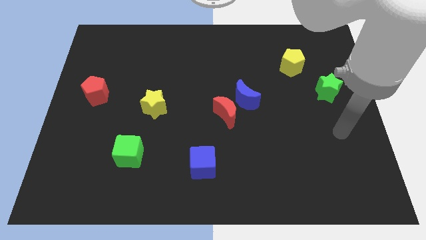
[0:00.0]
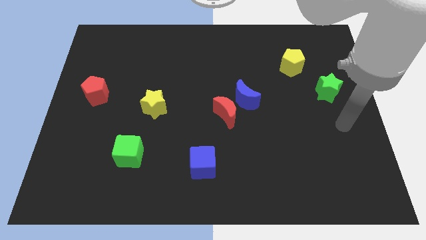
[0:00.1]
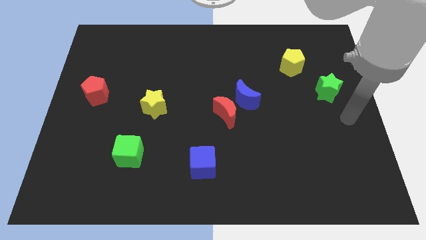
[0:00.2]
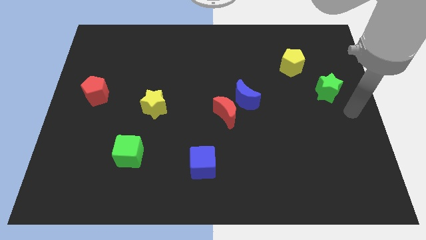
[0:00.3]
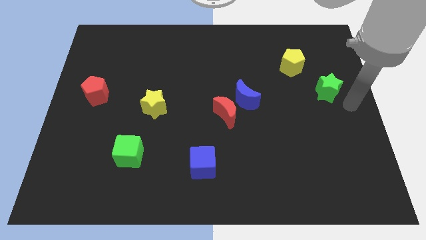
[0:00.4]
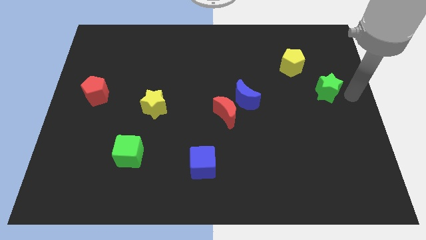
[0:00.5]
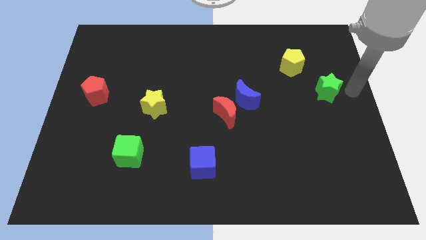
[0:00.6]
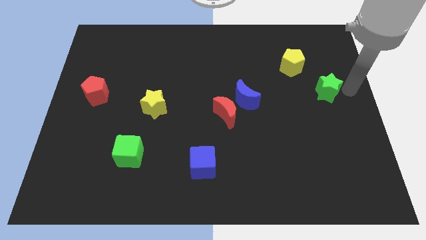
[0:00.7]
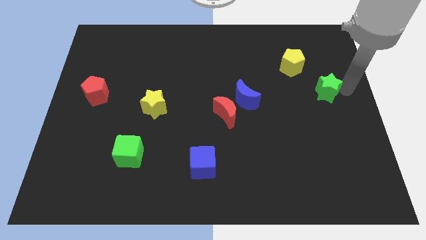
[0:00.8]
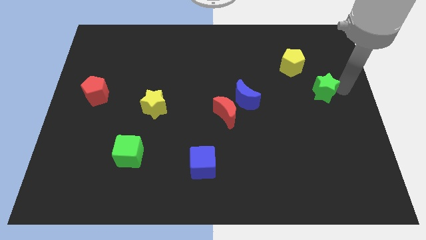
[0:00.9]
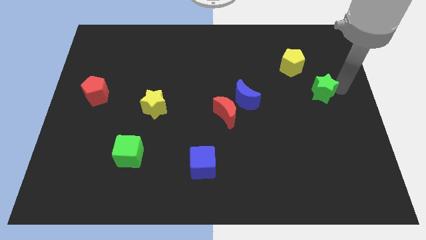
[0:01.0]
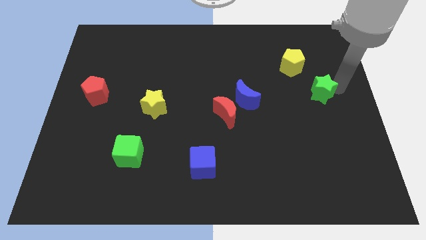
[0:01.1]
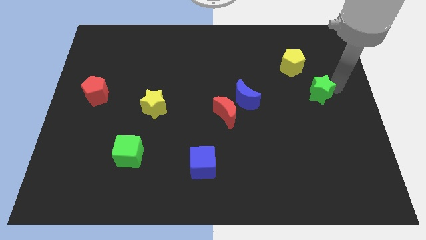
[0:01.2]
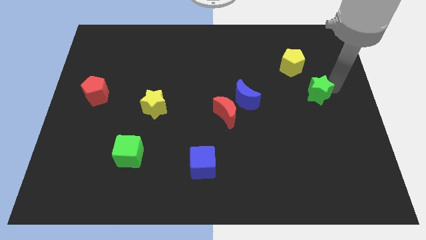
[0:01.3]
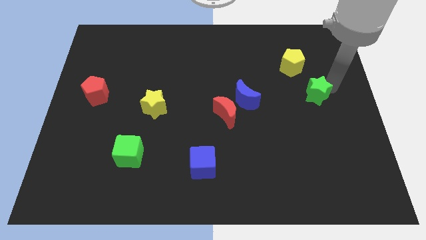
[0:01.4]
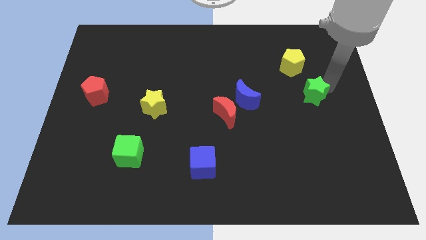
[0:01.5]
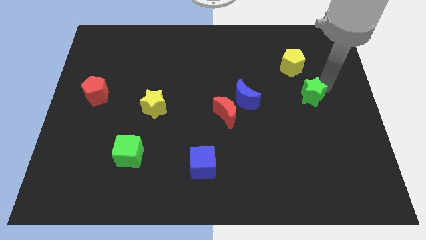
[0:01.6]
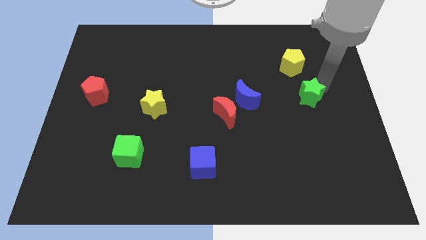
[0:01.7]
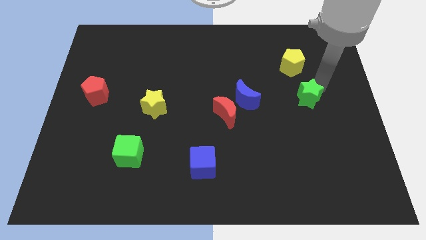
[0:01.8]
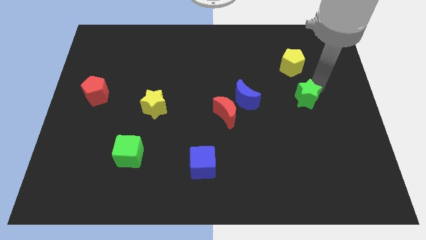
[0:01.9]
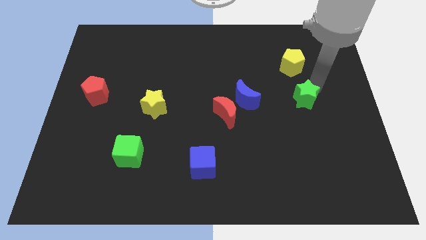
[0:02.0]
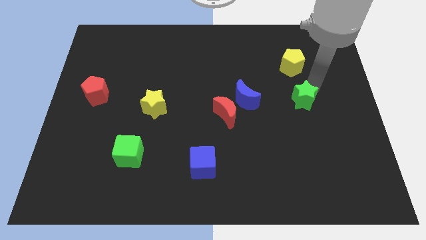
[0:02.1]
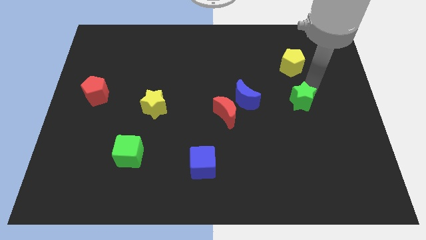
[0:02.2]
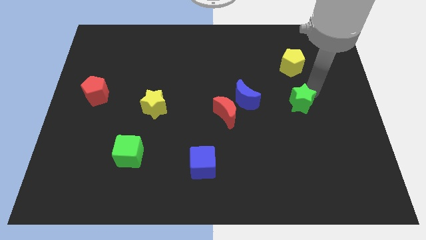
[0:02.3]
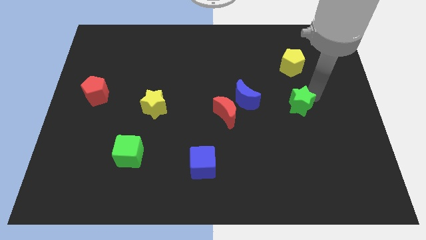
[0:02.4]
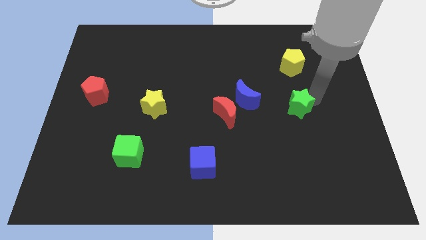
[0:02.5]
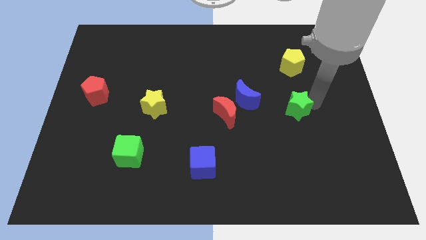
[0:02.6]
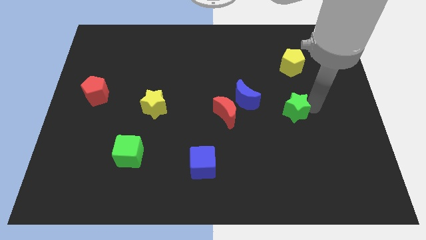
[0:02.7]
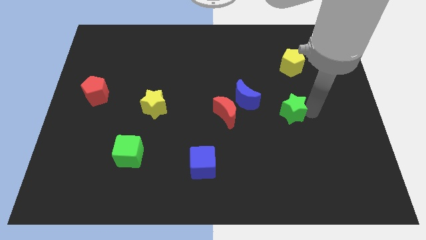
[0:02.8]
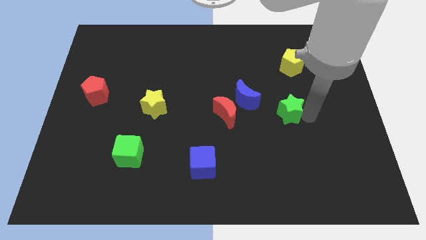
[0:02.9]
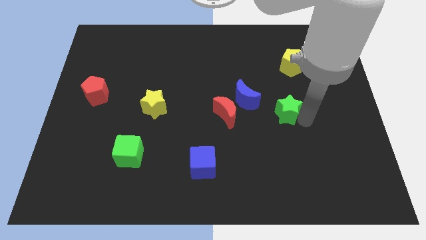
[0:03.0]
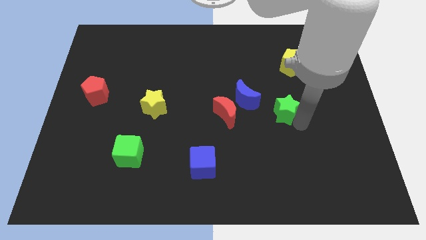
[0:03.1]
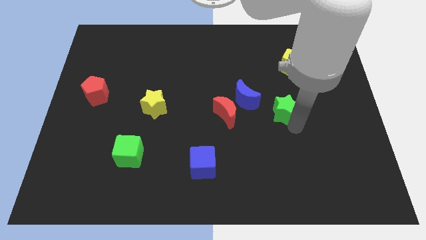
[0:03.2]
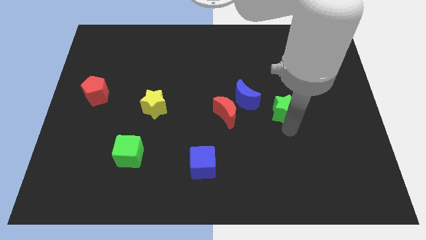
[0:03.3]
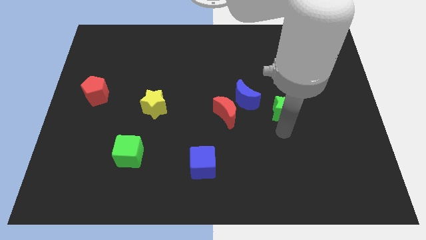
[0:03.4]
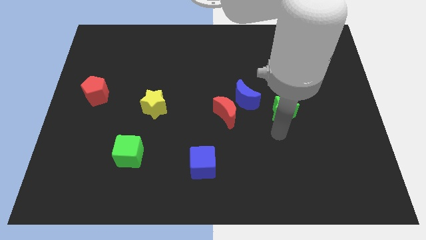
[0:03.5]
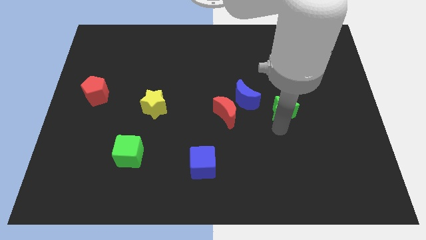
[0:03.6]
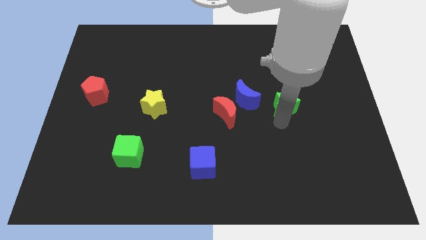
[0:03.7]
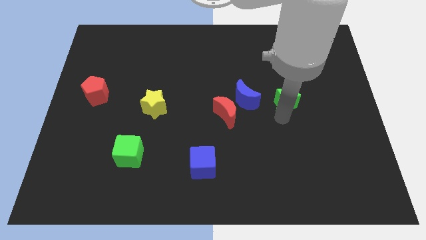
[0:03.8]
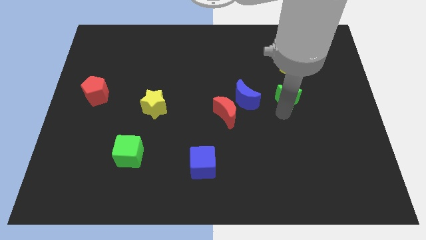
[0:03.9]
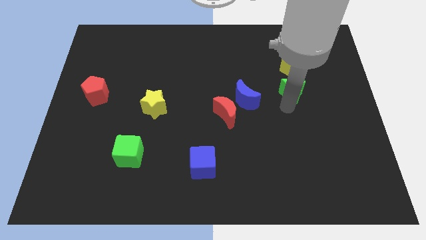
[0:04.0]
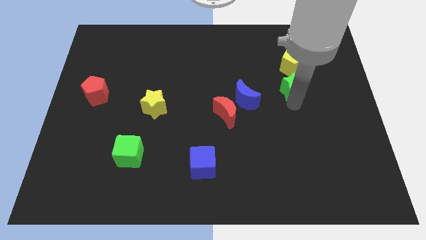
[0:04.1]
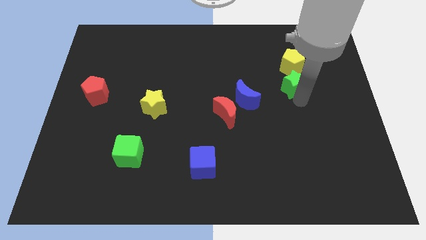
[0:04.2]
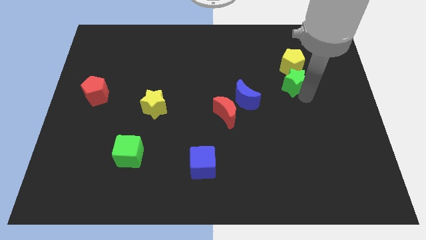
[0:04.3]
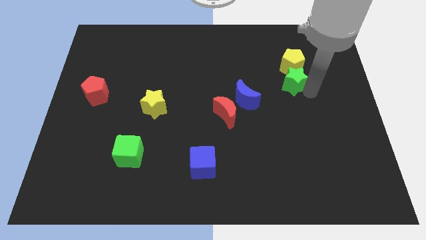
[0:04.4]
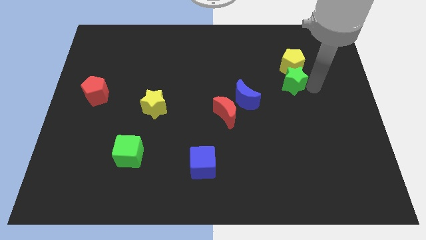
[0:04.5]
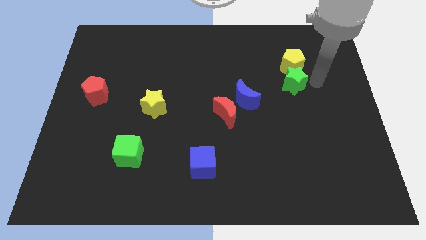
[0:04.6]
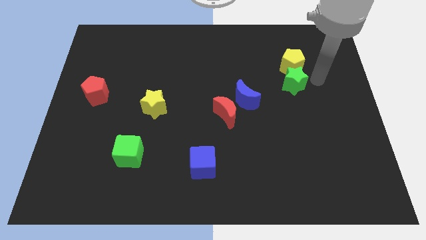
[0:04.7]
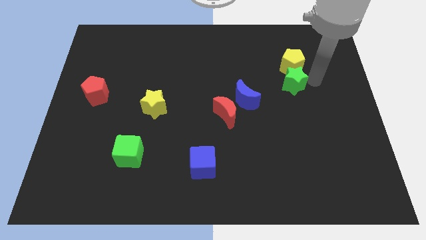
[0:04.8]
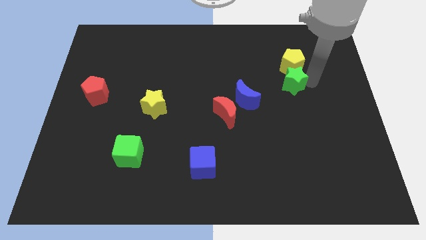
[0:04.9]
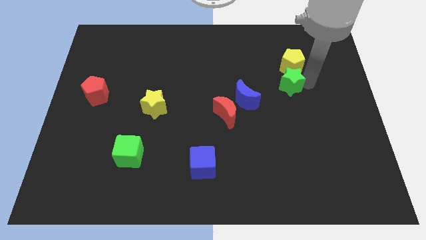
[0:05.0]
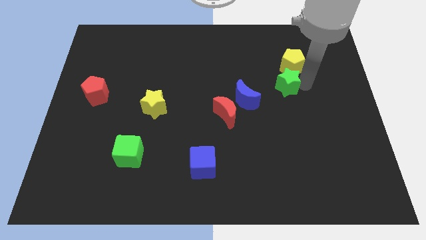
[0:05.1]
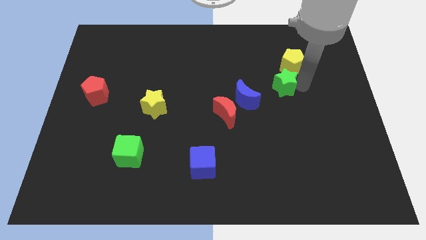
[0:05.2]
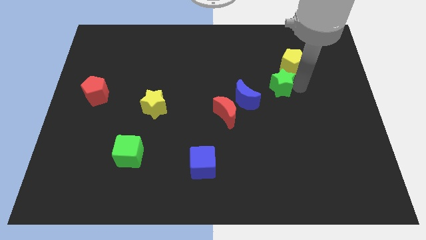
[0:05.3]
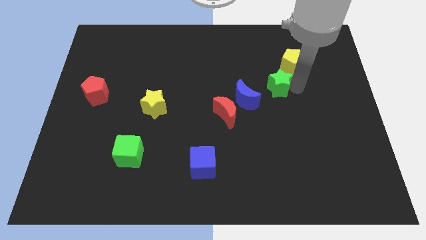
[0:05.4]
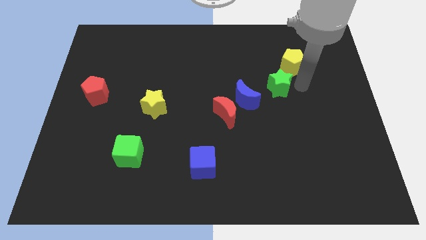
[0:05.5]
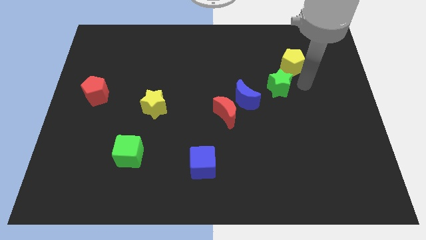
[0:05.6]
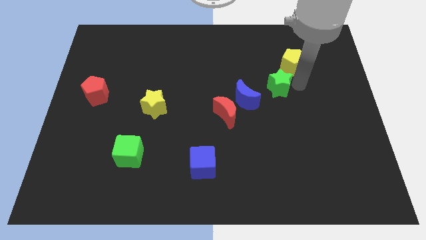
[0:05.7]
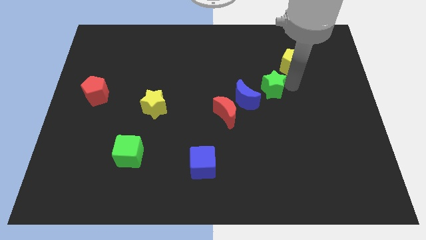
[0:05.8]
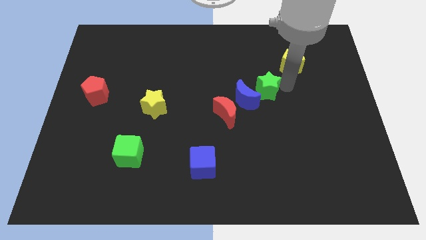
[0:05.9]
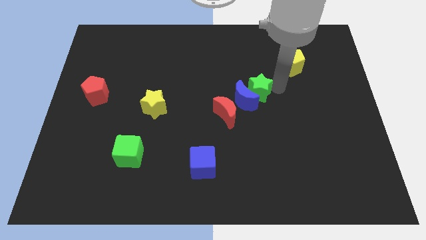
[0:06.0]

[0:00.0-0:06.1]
push the green star to the middle

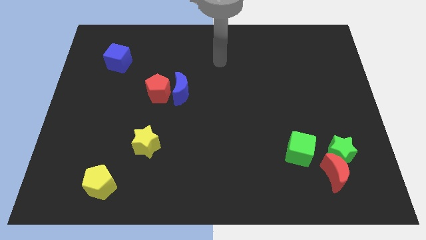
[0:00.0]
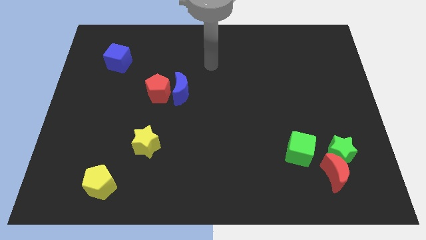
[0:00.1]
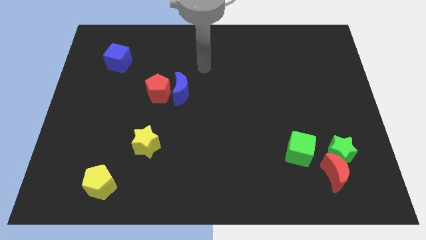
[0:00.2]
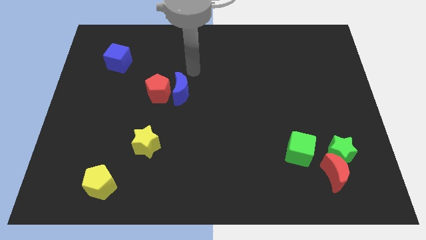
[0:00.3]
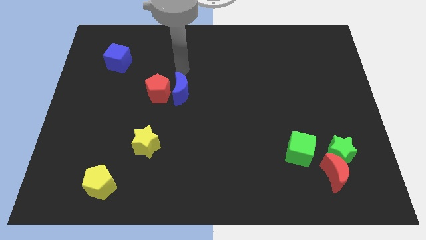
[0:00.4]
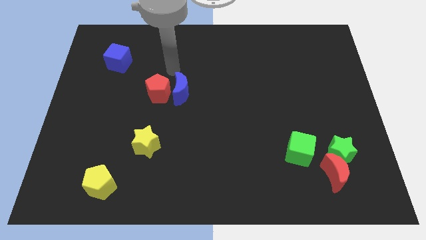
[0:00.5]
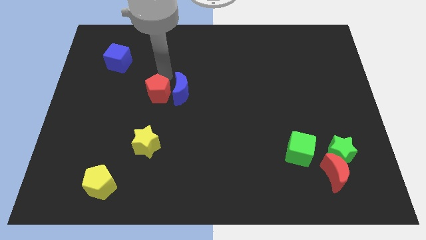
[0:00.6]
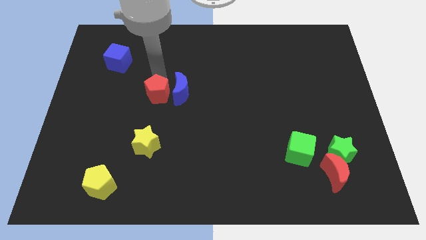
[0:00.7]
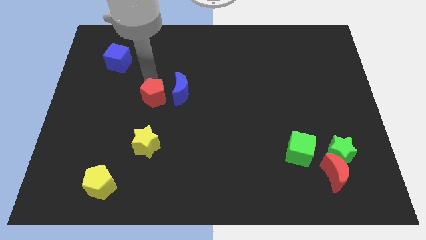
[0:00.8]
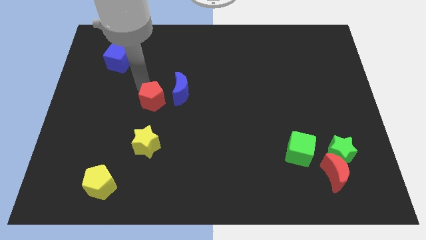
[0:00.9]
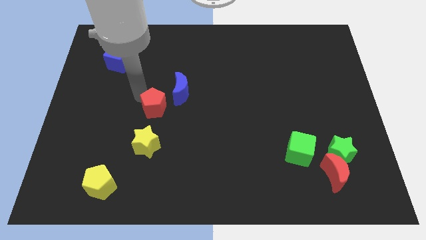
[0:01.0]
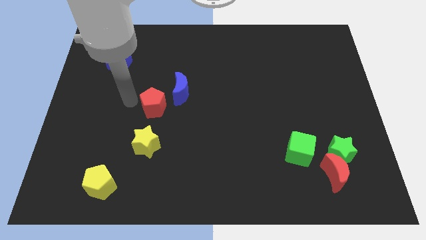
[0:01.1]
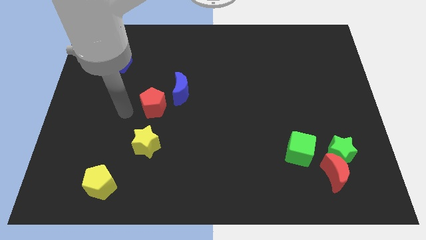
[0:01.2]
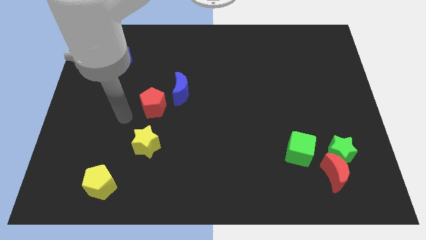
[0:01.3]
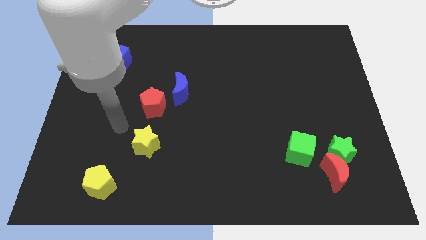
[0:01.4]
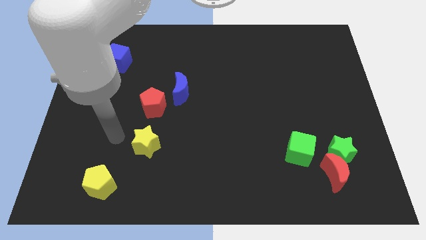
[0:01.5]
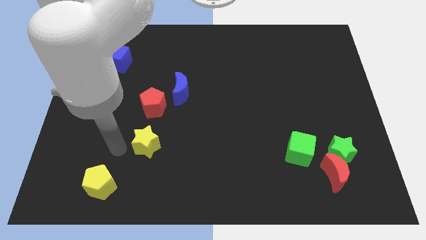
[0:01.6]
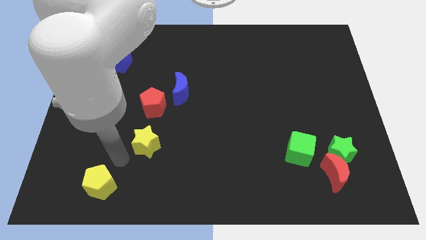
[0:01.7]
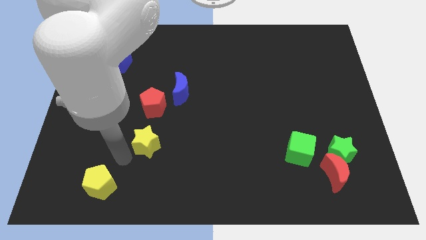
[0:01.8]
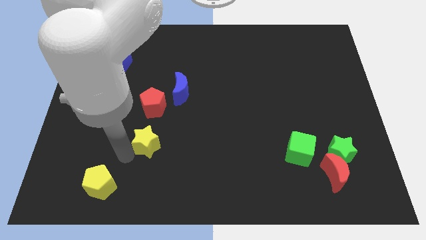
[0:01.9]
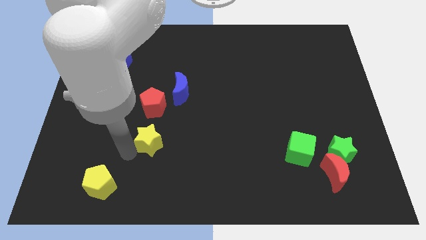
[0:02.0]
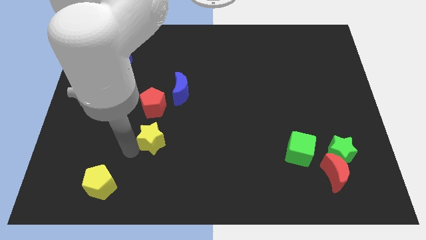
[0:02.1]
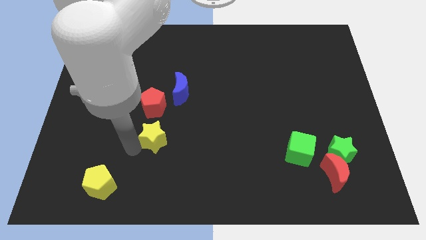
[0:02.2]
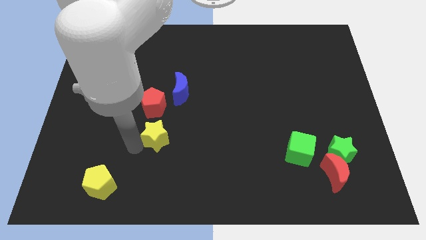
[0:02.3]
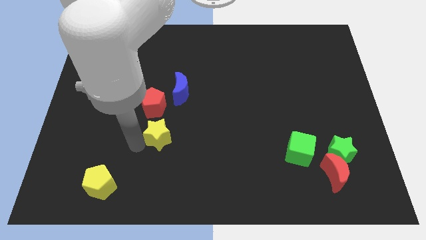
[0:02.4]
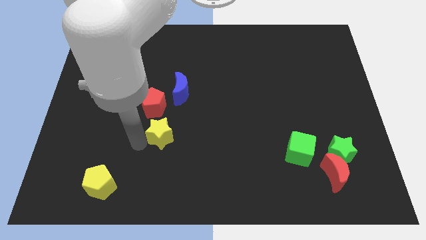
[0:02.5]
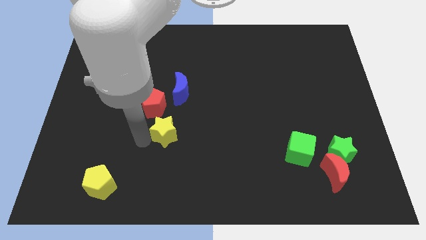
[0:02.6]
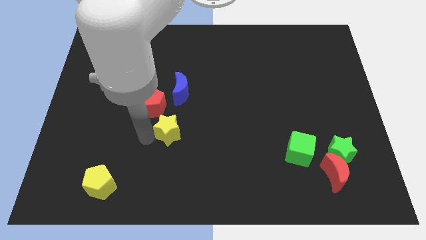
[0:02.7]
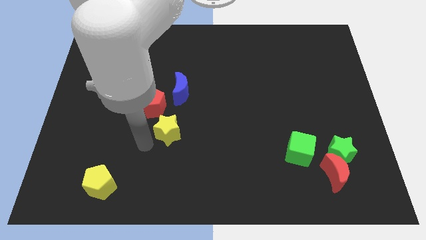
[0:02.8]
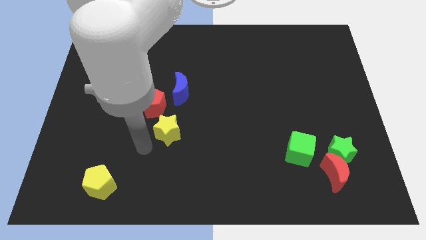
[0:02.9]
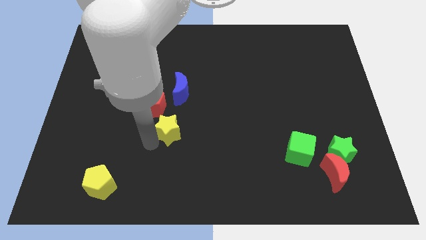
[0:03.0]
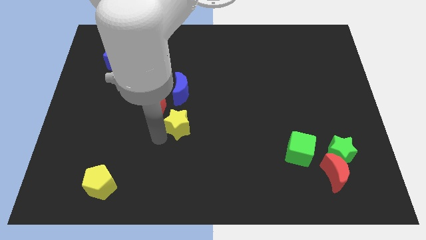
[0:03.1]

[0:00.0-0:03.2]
put the yellow star to the center
